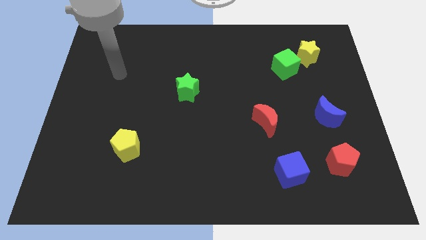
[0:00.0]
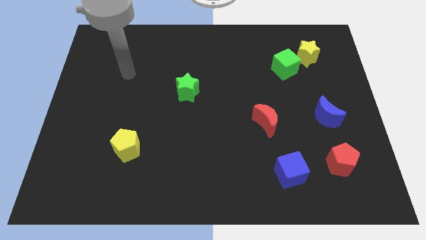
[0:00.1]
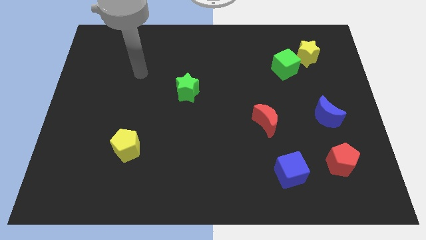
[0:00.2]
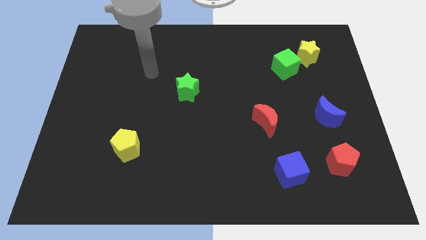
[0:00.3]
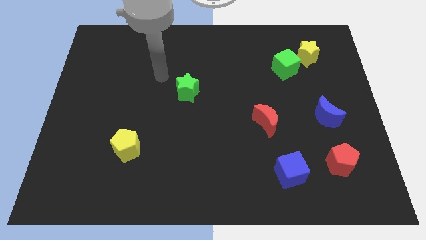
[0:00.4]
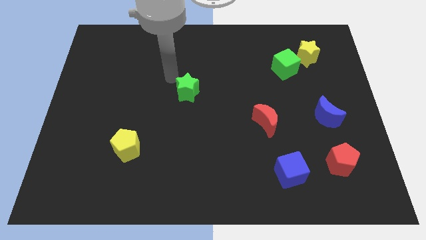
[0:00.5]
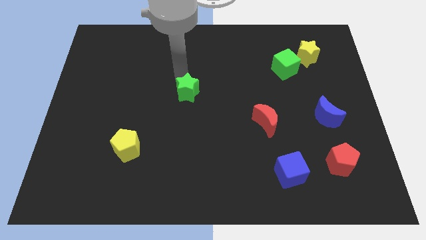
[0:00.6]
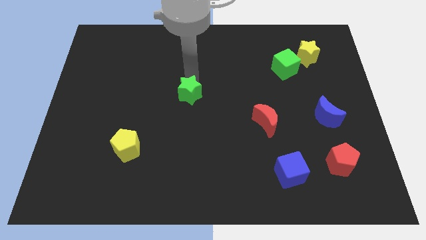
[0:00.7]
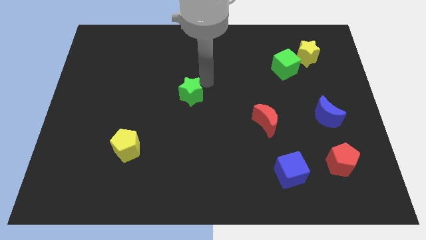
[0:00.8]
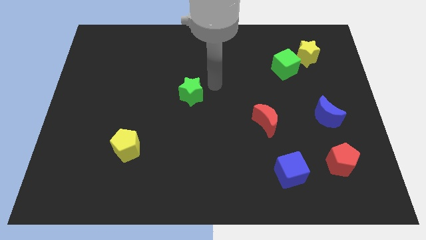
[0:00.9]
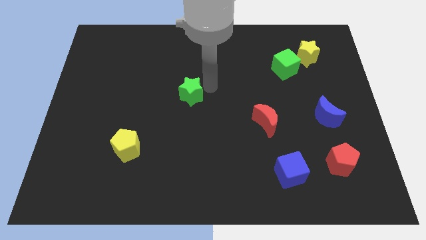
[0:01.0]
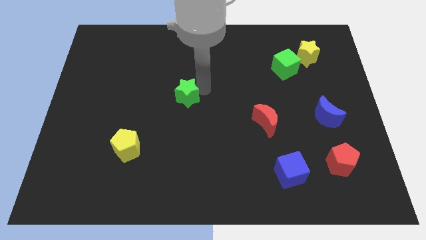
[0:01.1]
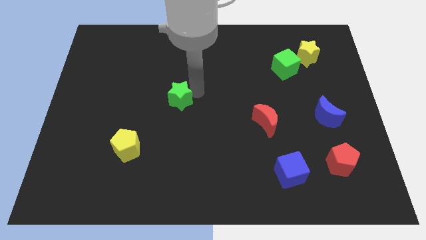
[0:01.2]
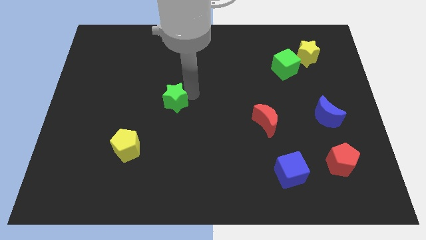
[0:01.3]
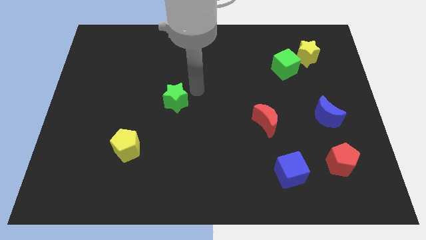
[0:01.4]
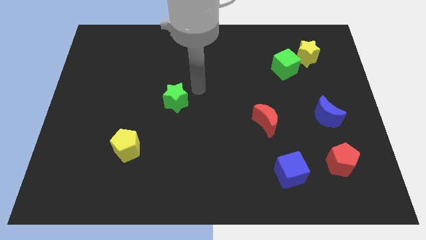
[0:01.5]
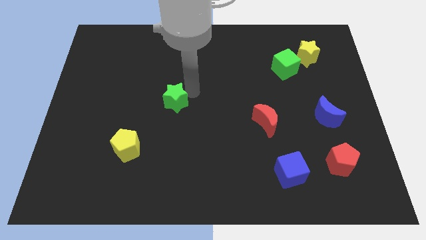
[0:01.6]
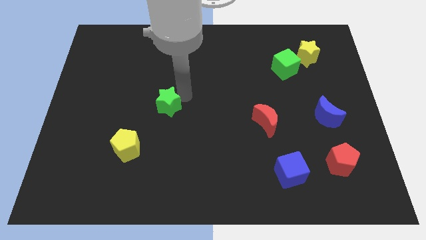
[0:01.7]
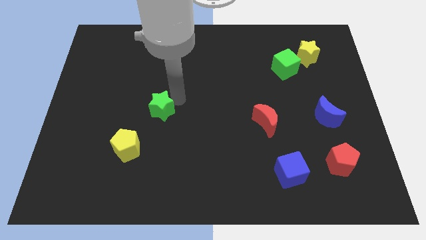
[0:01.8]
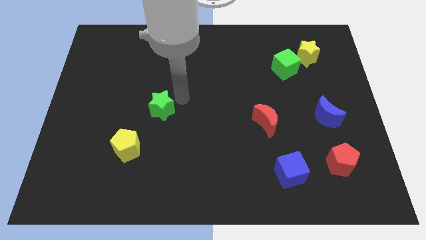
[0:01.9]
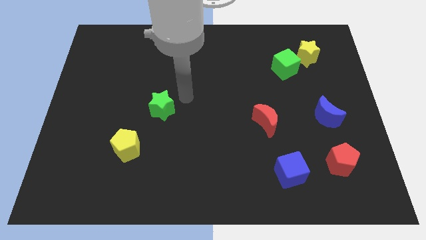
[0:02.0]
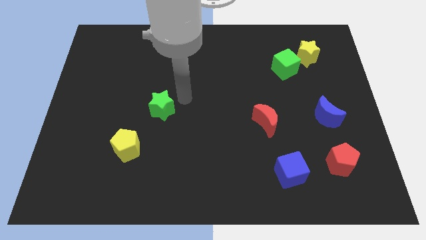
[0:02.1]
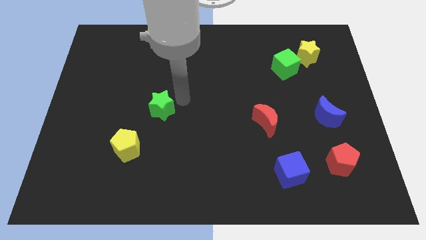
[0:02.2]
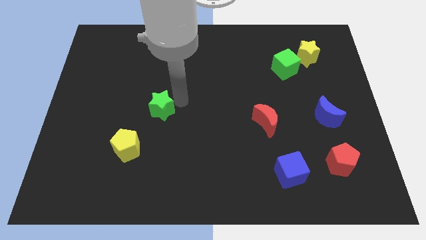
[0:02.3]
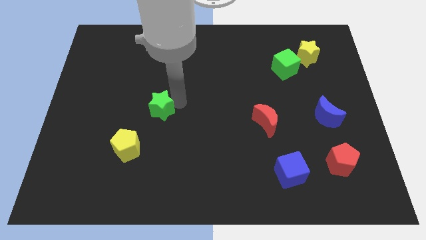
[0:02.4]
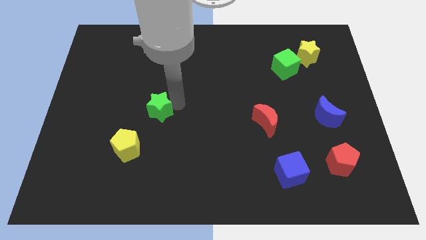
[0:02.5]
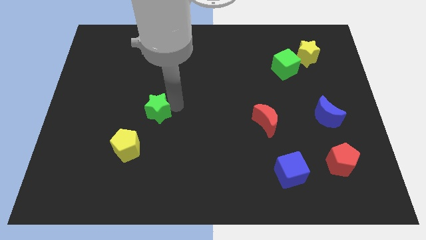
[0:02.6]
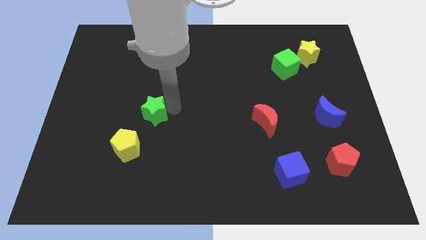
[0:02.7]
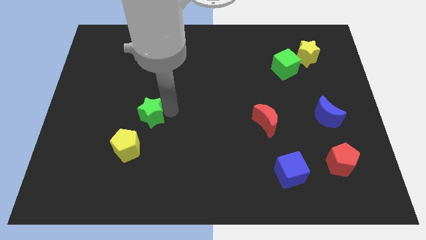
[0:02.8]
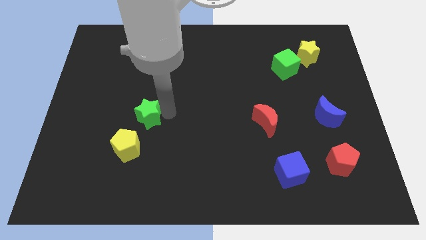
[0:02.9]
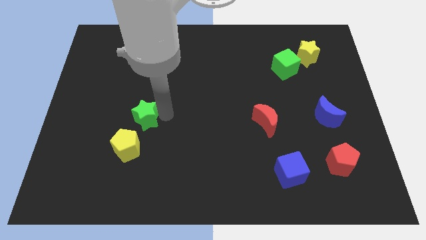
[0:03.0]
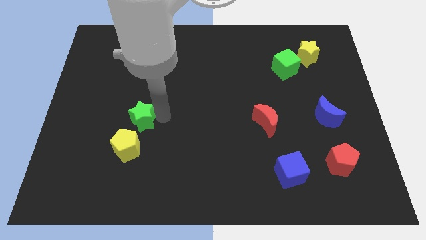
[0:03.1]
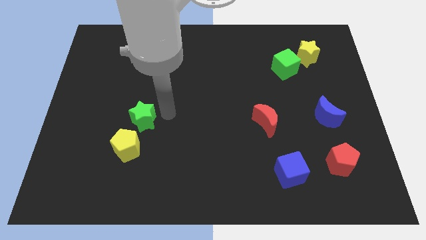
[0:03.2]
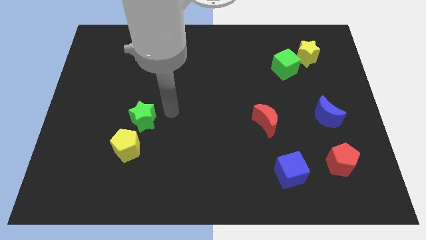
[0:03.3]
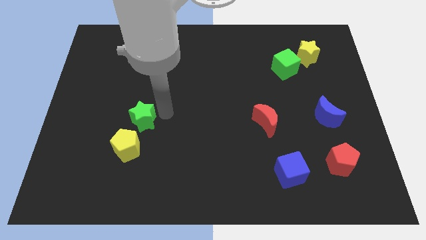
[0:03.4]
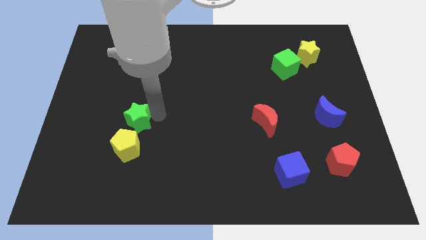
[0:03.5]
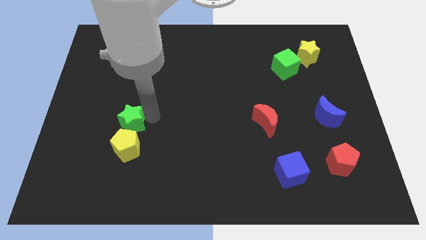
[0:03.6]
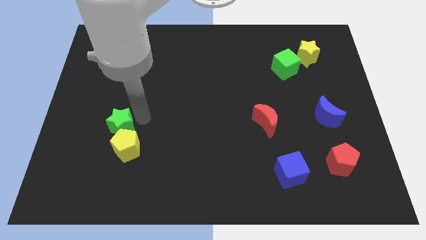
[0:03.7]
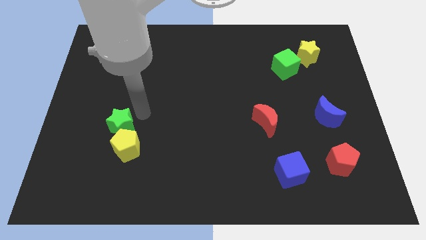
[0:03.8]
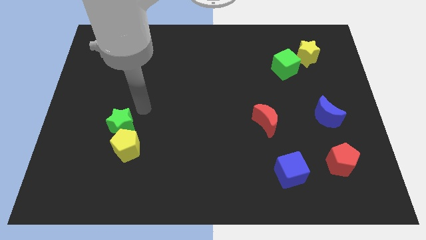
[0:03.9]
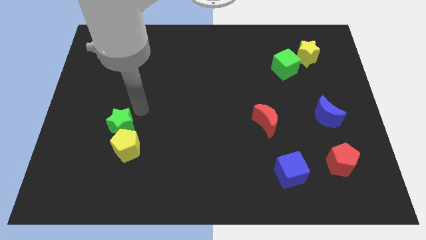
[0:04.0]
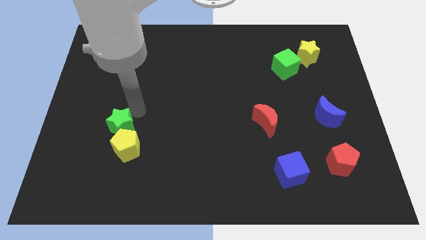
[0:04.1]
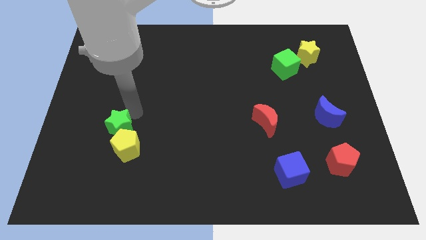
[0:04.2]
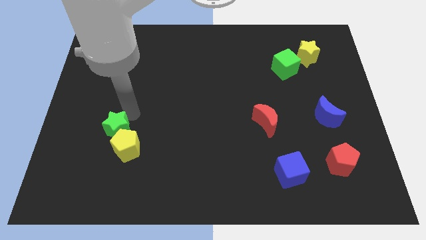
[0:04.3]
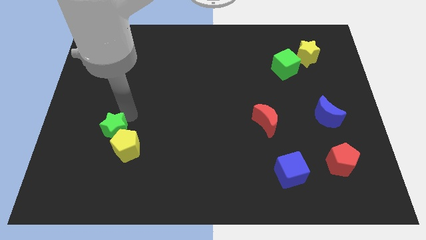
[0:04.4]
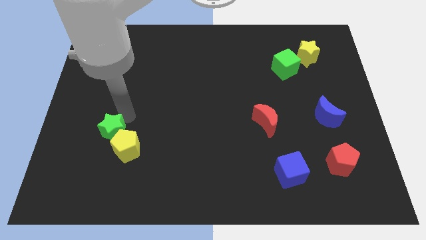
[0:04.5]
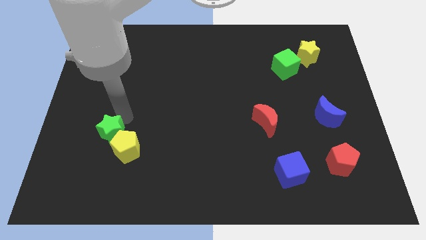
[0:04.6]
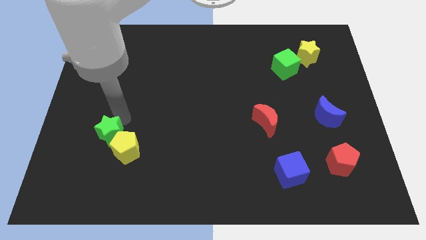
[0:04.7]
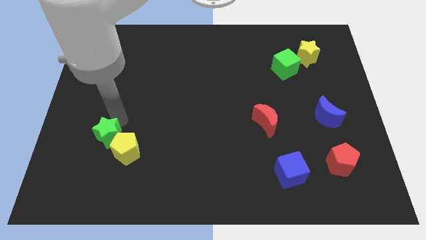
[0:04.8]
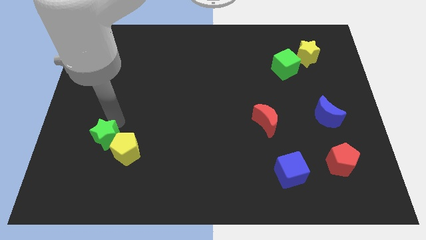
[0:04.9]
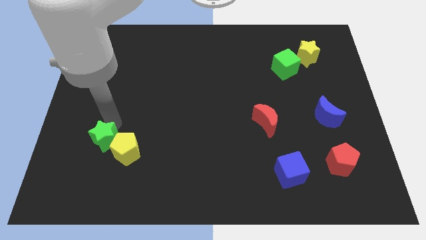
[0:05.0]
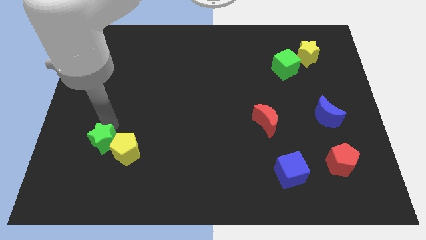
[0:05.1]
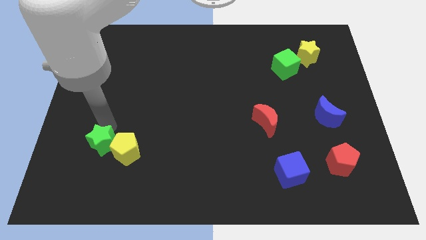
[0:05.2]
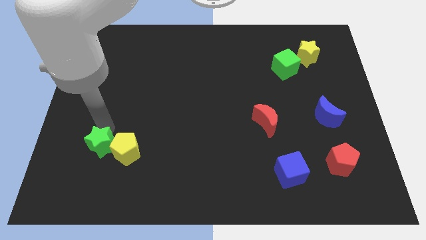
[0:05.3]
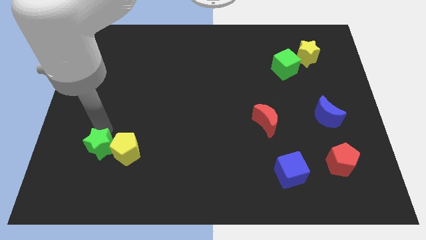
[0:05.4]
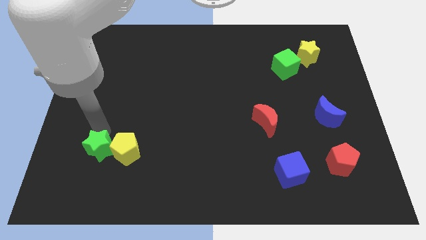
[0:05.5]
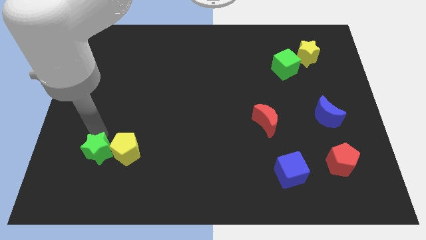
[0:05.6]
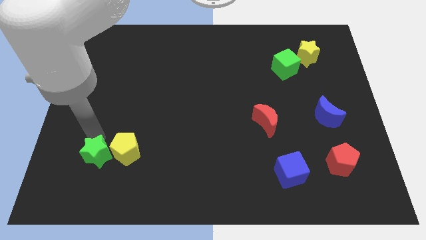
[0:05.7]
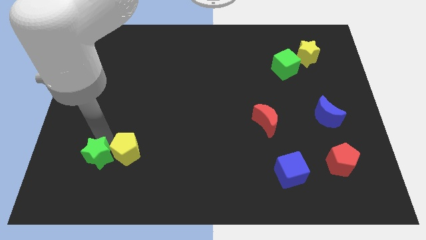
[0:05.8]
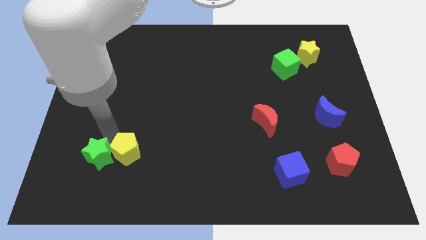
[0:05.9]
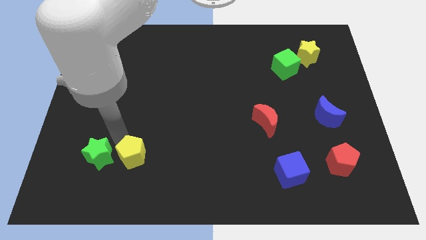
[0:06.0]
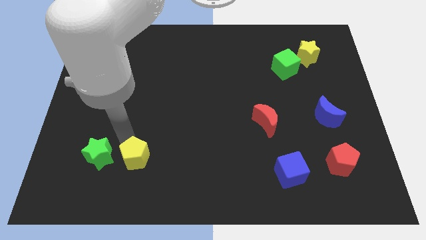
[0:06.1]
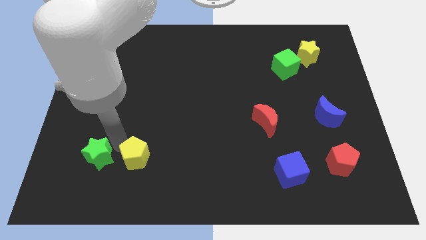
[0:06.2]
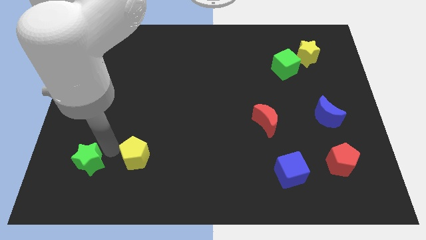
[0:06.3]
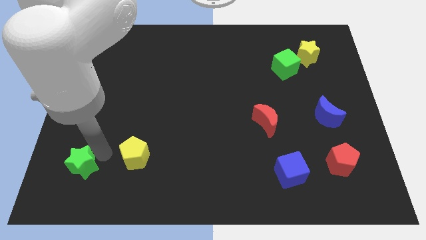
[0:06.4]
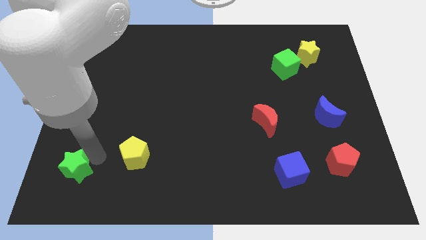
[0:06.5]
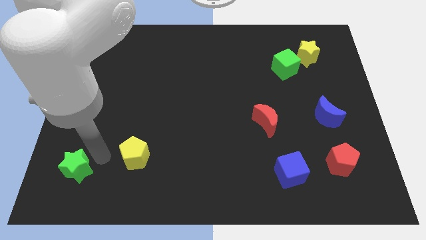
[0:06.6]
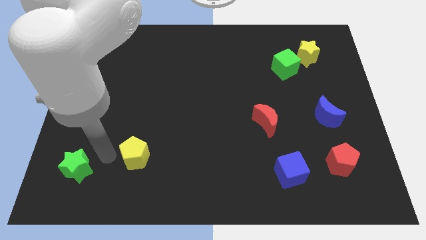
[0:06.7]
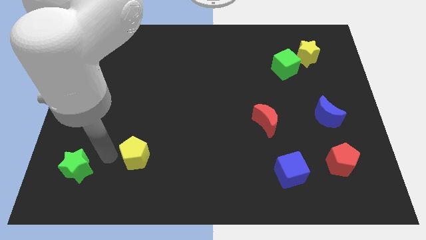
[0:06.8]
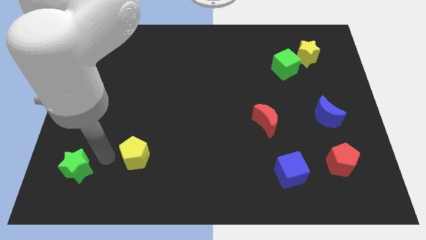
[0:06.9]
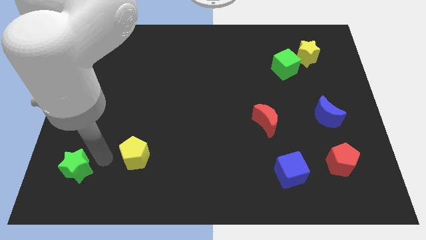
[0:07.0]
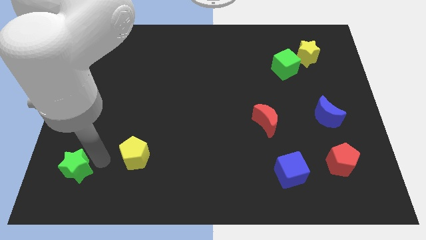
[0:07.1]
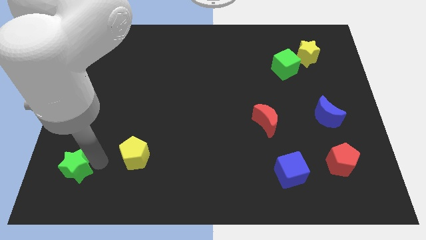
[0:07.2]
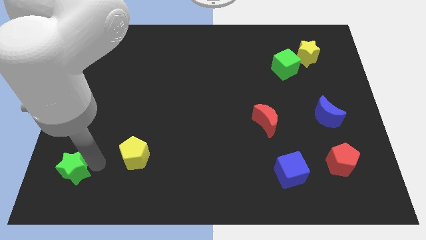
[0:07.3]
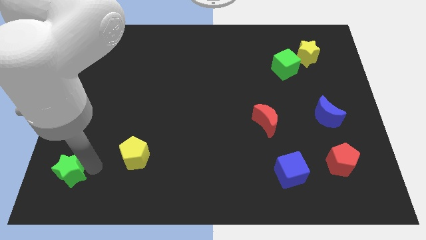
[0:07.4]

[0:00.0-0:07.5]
put the green star to the bottom left of the board
